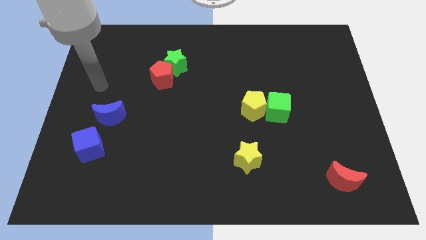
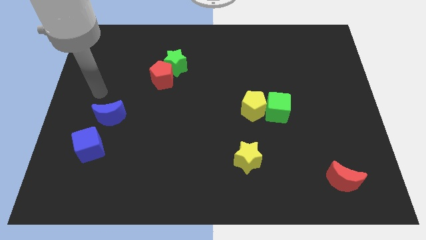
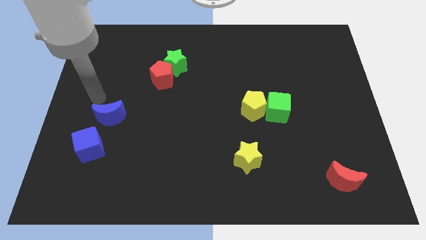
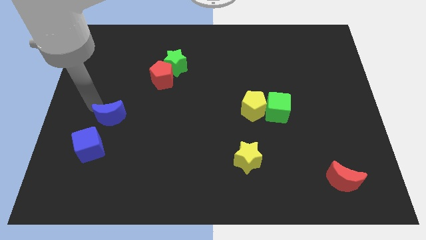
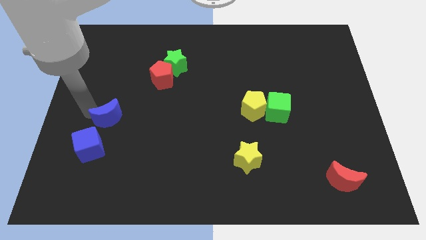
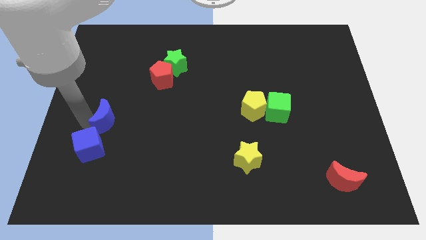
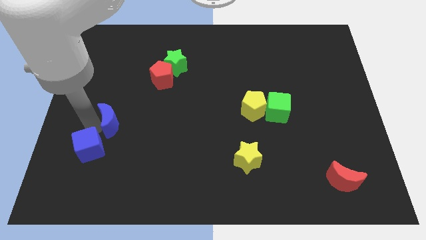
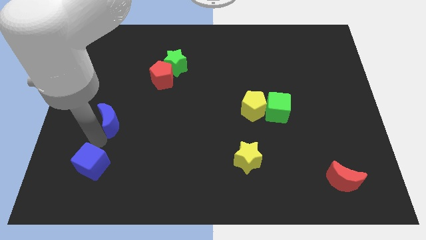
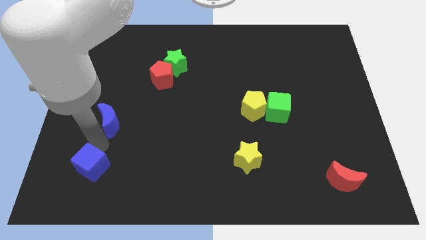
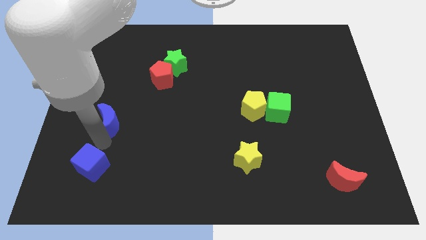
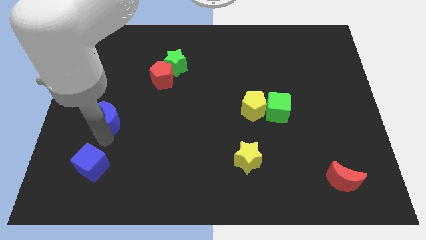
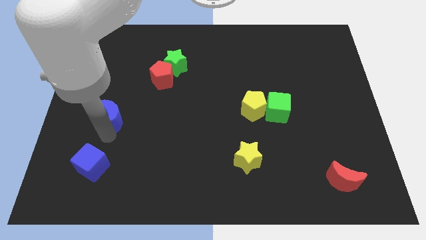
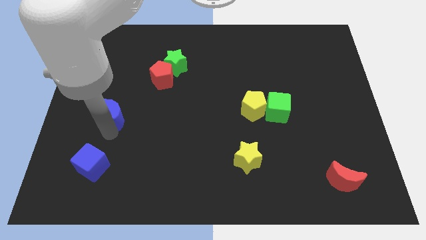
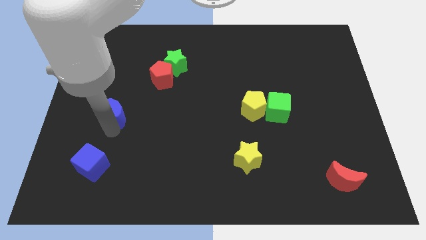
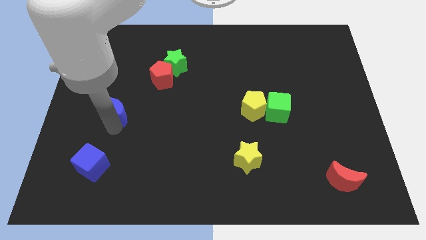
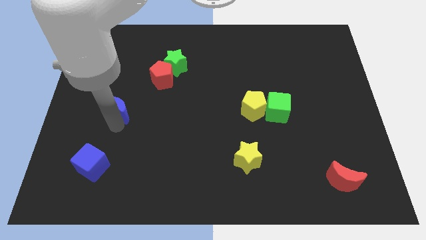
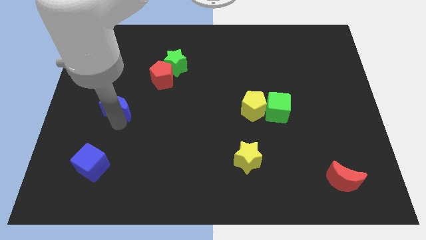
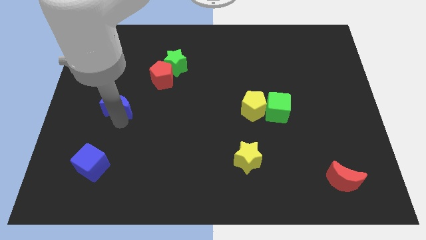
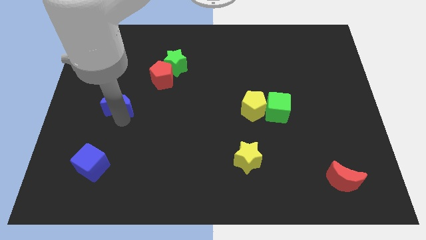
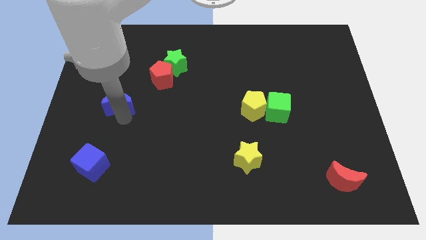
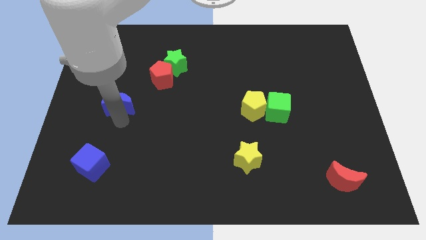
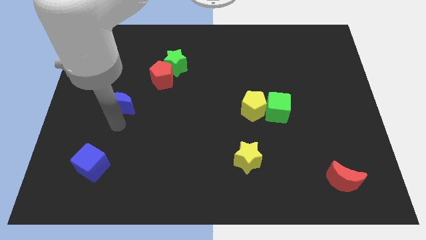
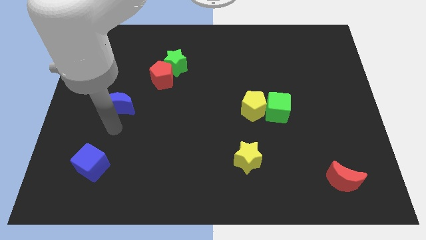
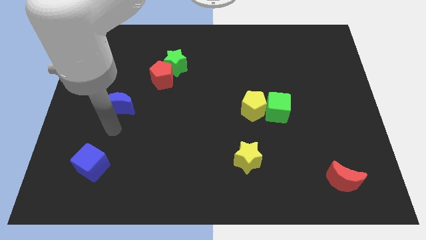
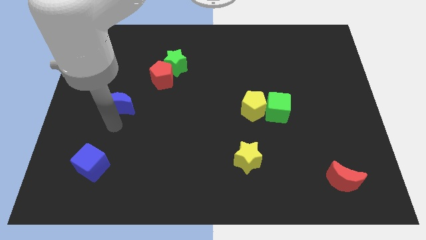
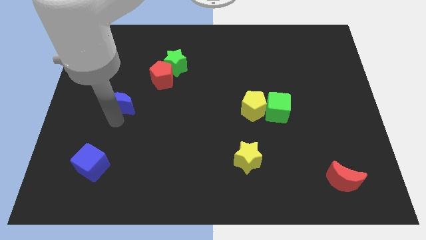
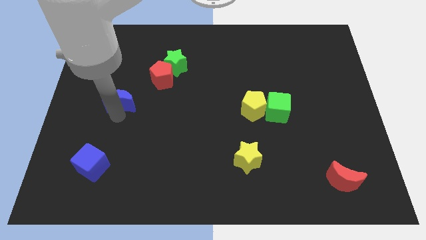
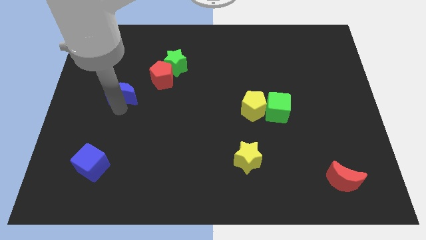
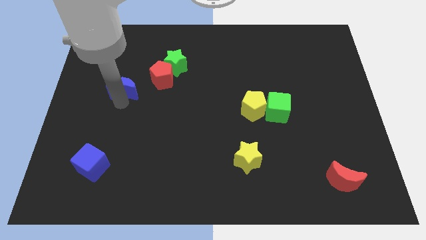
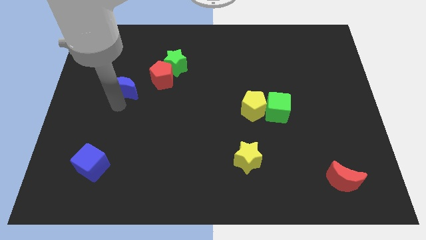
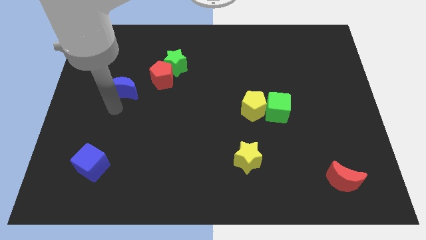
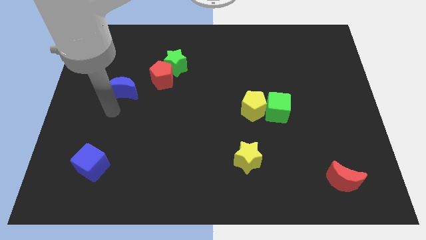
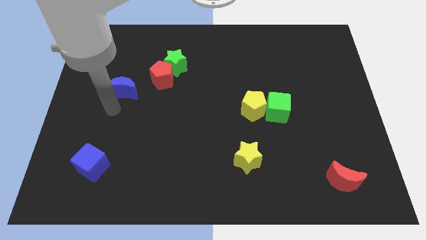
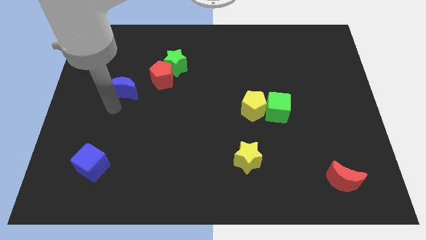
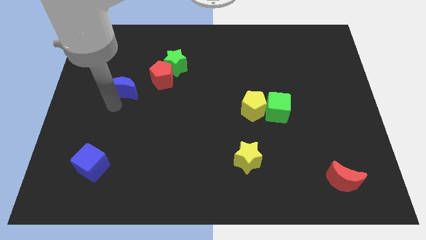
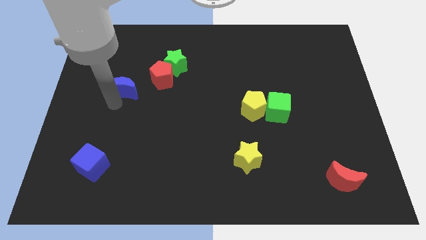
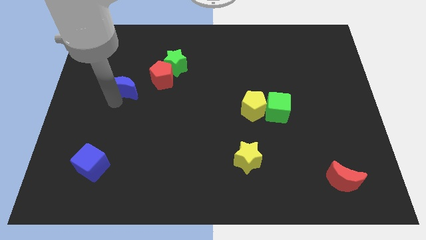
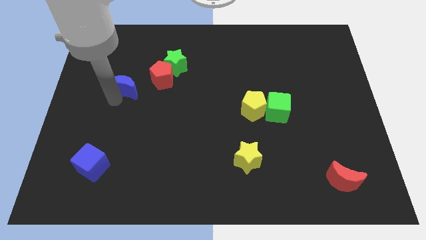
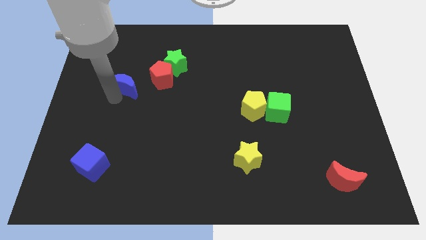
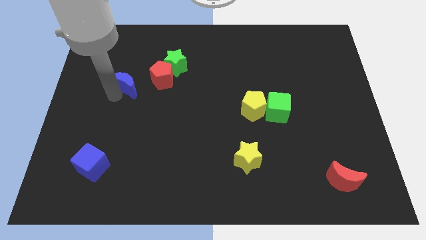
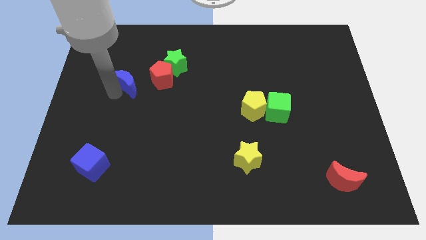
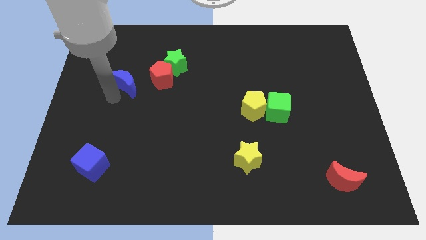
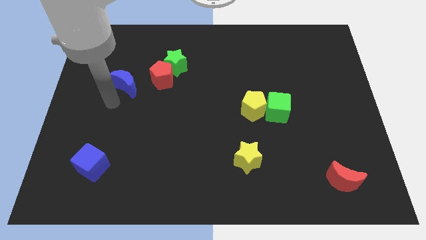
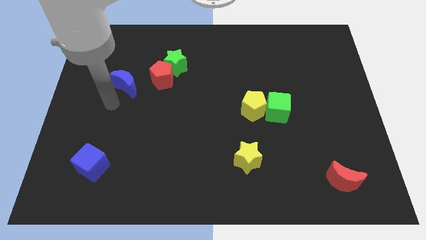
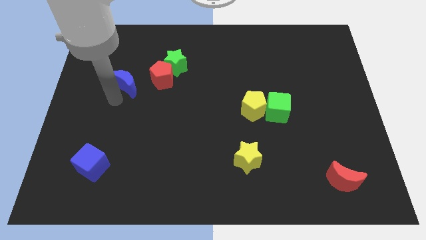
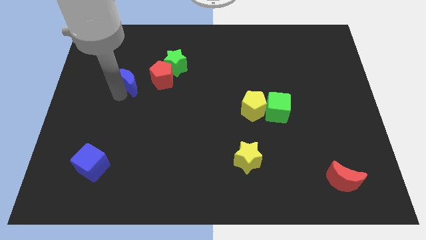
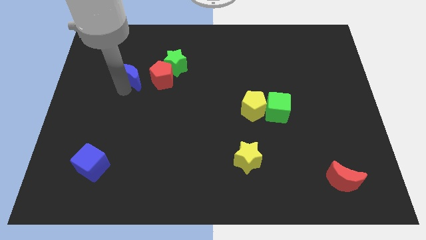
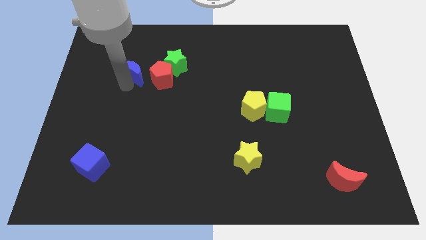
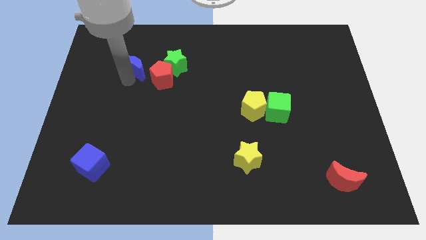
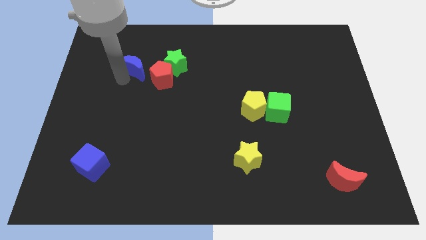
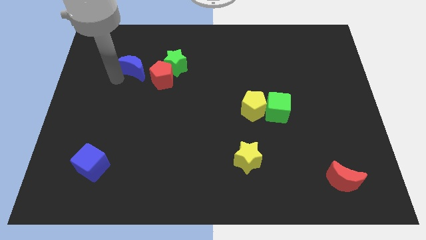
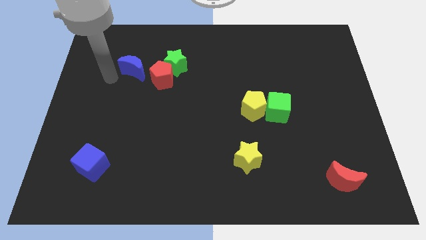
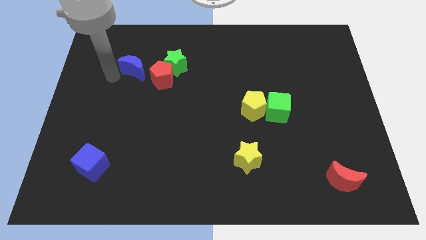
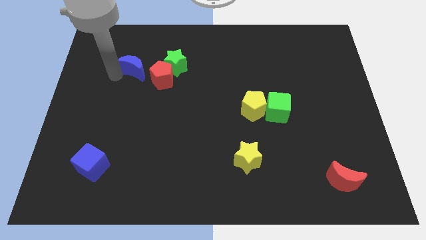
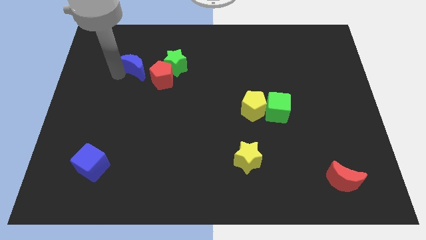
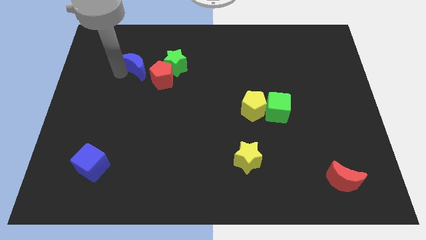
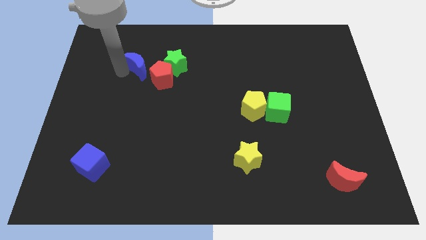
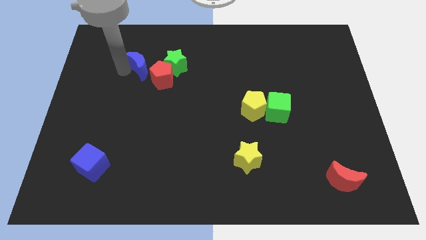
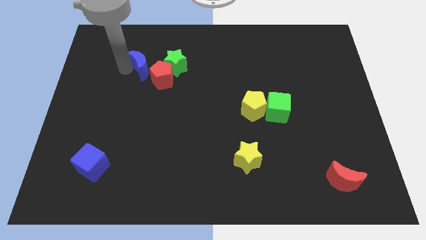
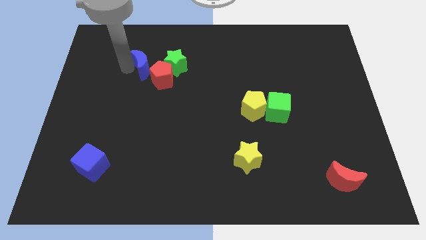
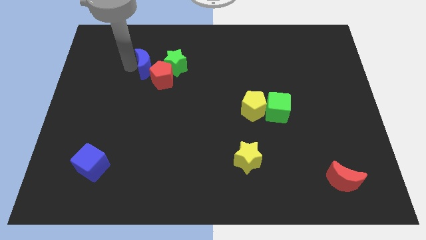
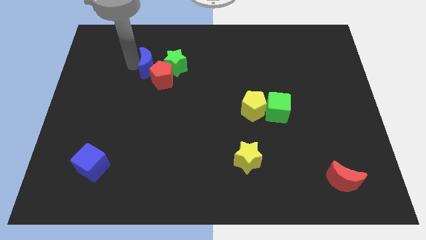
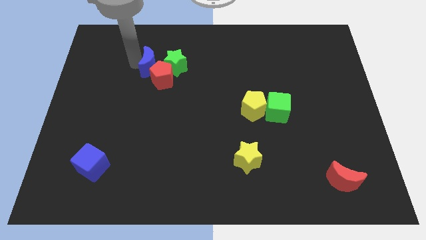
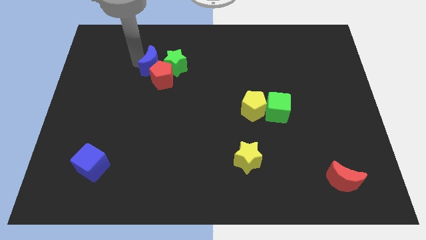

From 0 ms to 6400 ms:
move the blue moon close to the green star
